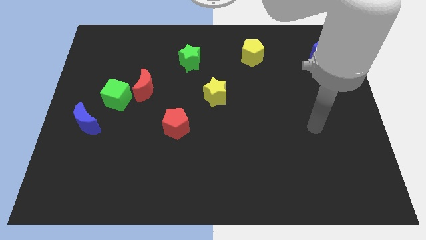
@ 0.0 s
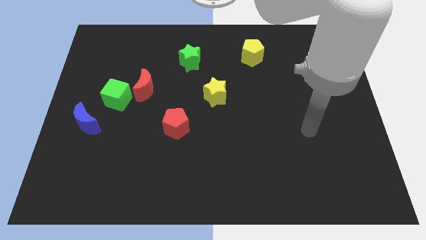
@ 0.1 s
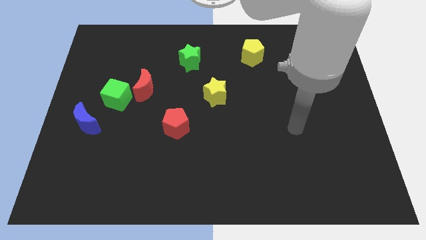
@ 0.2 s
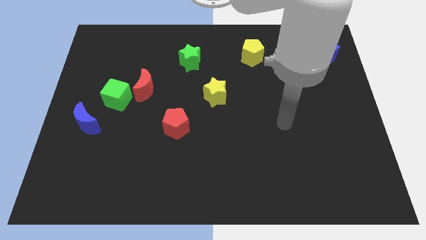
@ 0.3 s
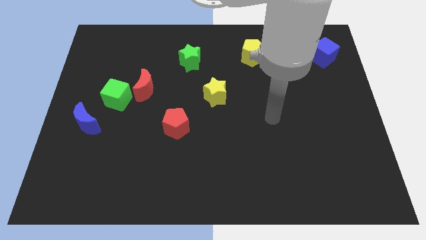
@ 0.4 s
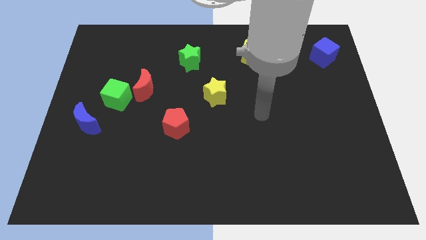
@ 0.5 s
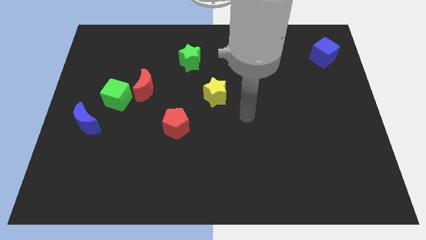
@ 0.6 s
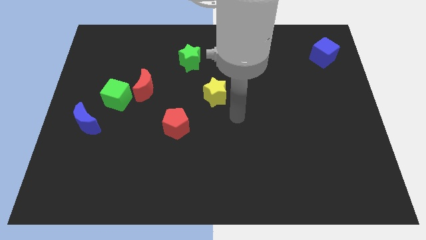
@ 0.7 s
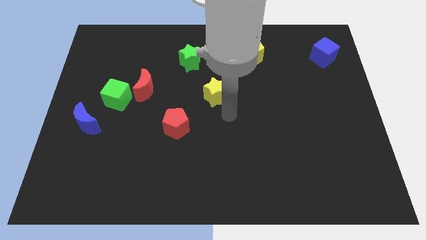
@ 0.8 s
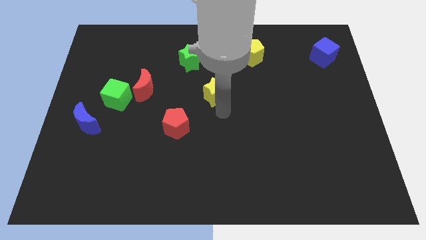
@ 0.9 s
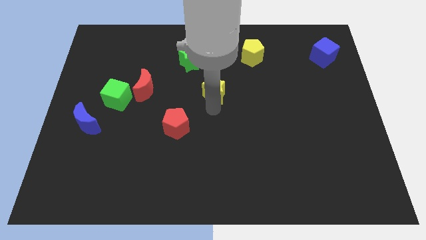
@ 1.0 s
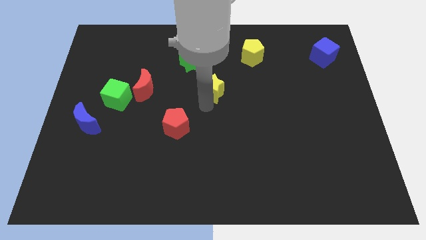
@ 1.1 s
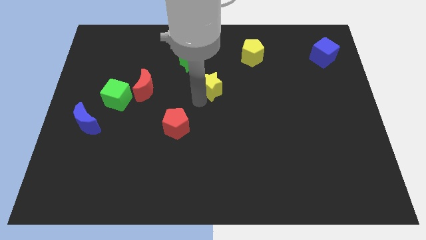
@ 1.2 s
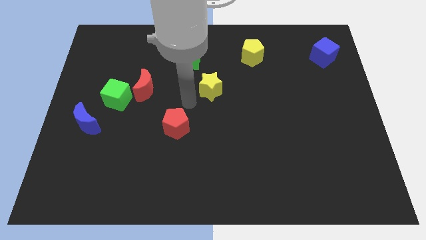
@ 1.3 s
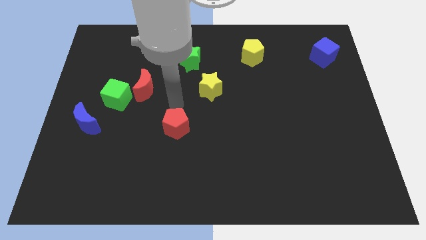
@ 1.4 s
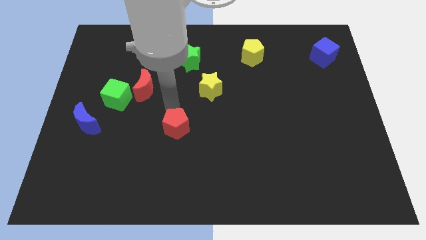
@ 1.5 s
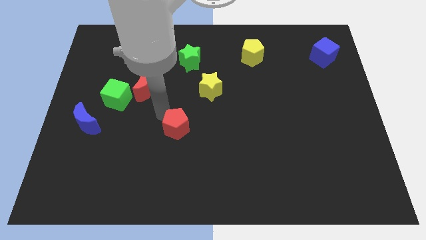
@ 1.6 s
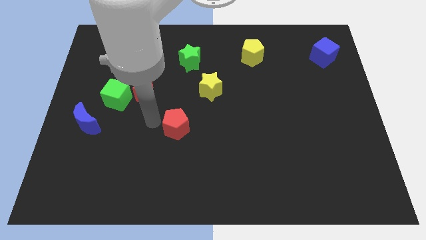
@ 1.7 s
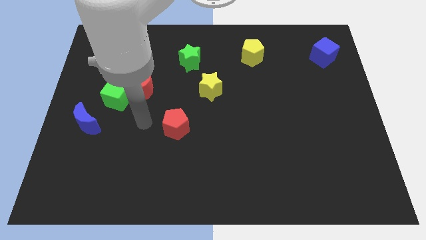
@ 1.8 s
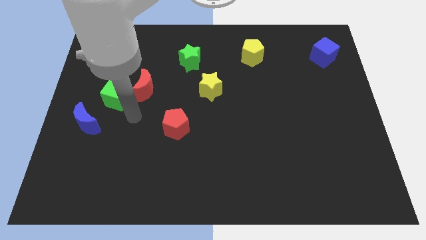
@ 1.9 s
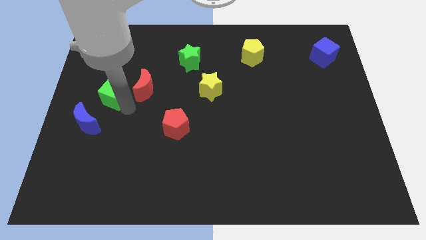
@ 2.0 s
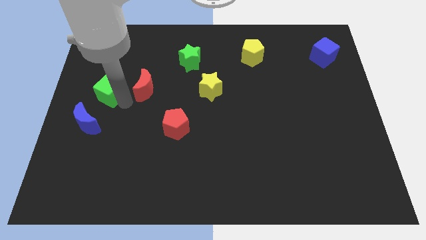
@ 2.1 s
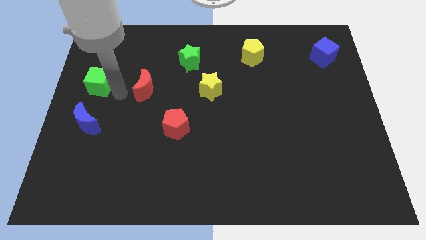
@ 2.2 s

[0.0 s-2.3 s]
move the red moon away from the green cube

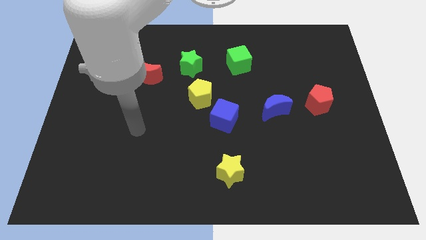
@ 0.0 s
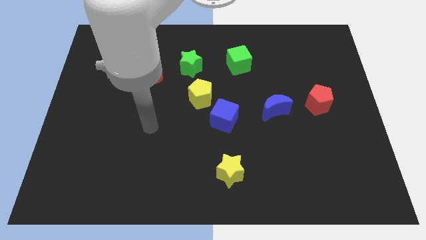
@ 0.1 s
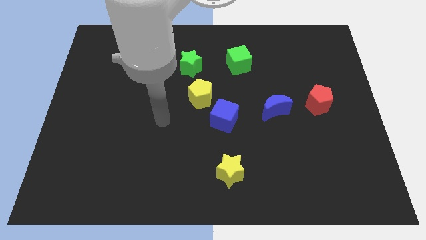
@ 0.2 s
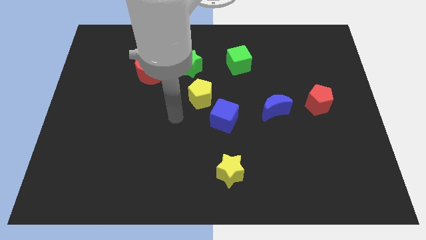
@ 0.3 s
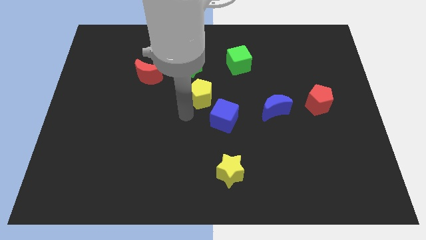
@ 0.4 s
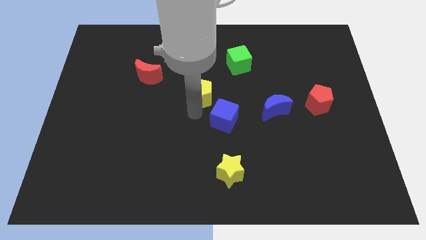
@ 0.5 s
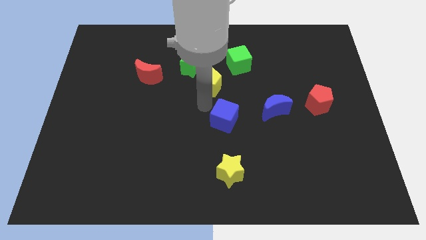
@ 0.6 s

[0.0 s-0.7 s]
separate the blue cube from the yellow pentagon

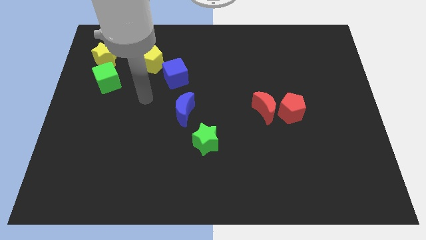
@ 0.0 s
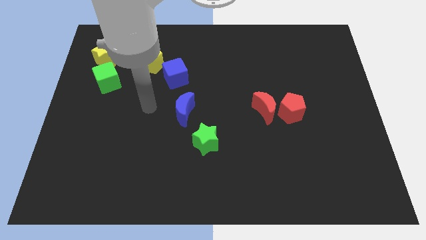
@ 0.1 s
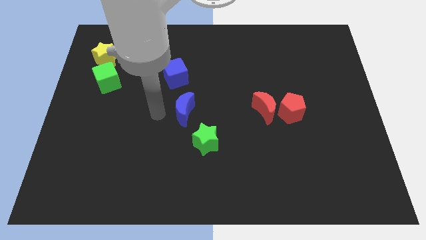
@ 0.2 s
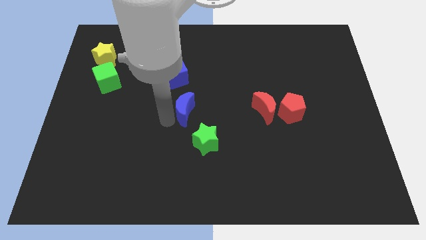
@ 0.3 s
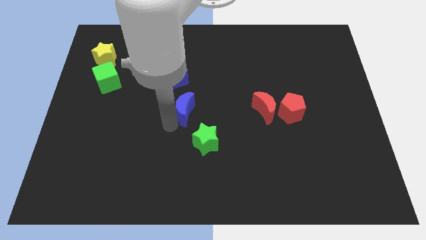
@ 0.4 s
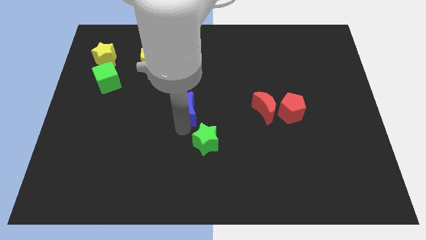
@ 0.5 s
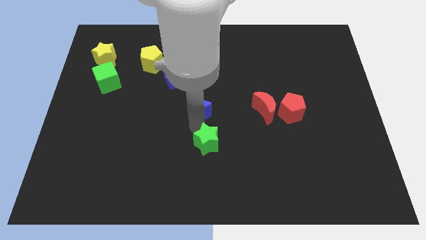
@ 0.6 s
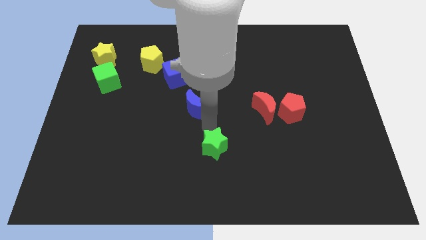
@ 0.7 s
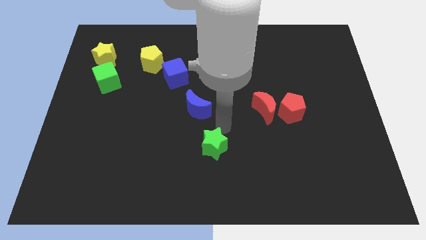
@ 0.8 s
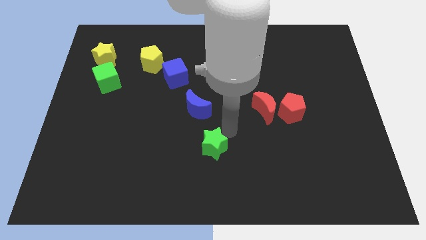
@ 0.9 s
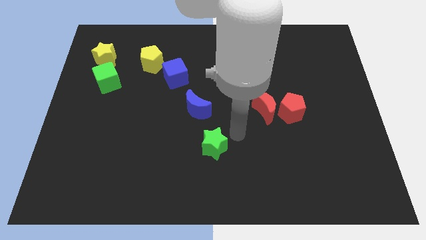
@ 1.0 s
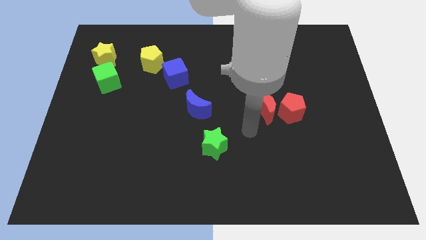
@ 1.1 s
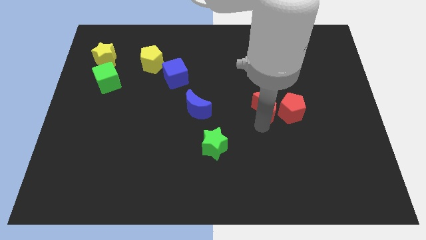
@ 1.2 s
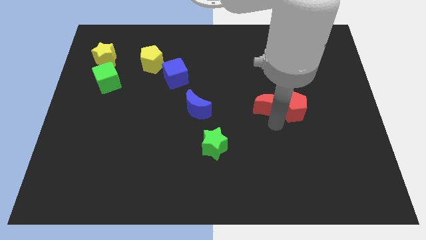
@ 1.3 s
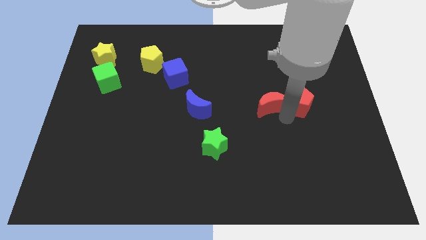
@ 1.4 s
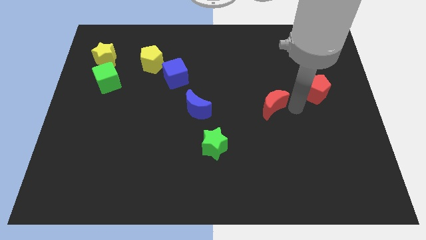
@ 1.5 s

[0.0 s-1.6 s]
move the red moon away from the red pentagon

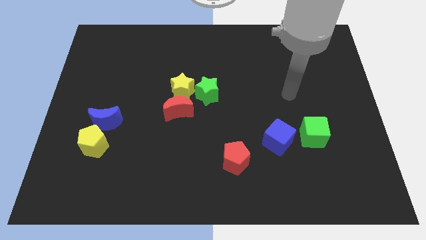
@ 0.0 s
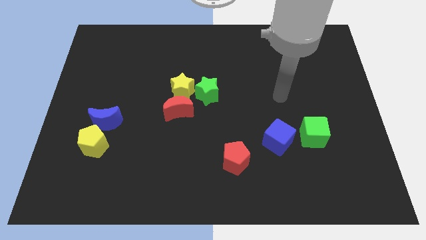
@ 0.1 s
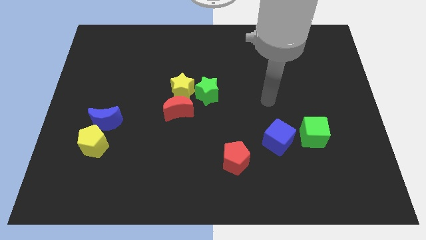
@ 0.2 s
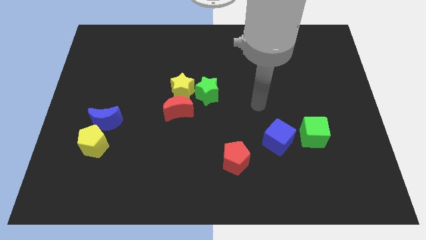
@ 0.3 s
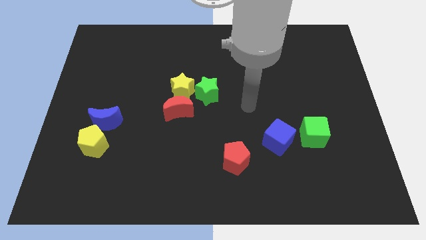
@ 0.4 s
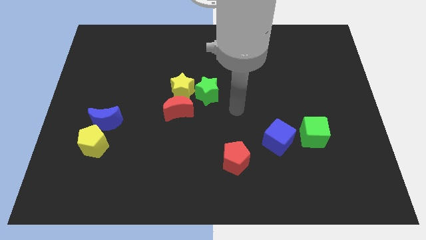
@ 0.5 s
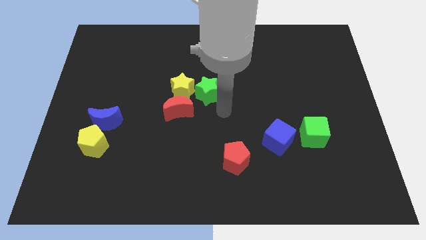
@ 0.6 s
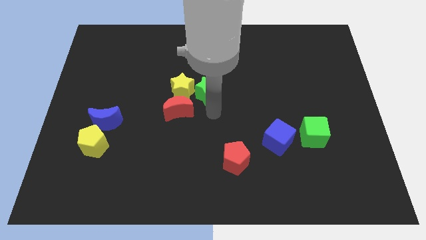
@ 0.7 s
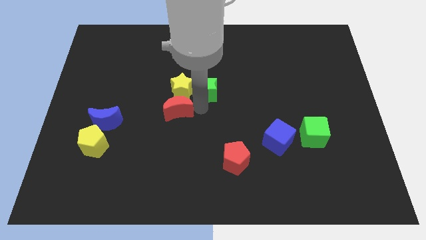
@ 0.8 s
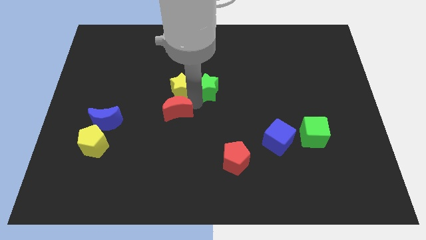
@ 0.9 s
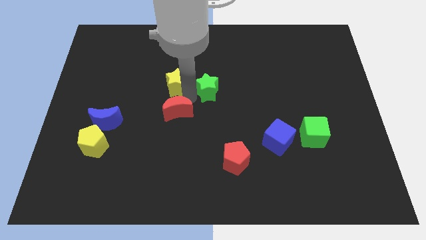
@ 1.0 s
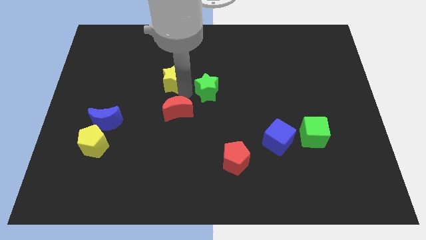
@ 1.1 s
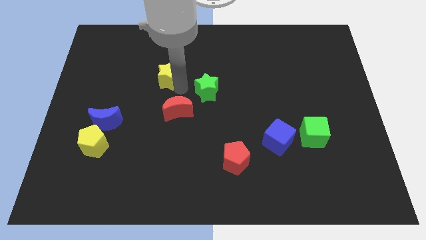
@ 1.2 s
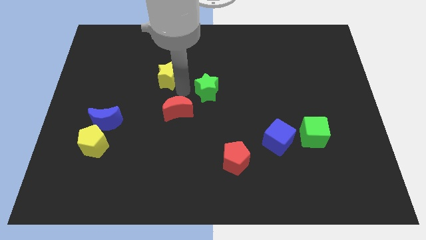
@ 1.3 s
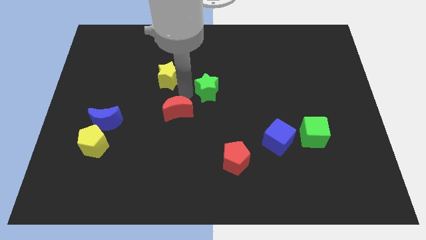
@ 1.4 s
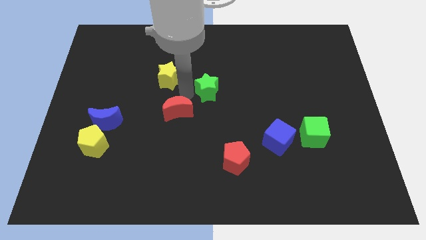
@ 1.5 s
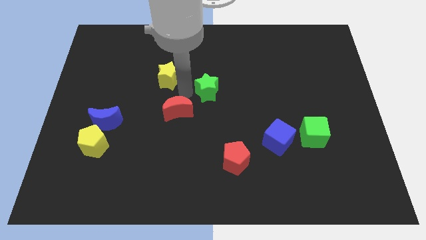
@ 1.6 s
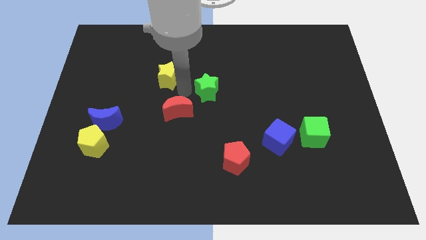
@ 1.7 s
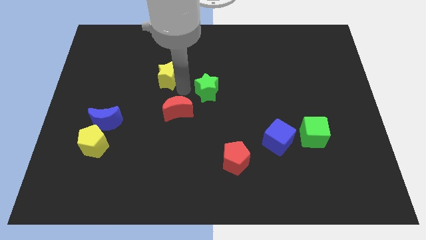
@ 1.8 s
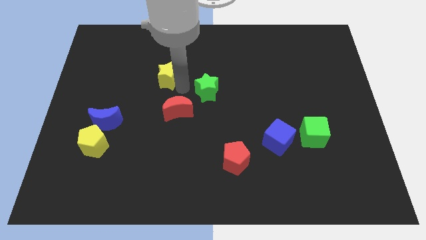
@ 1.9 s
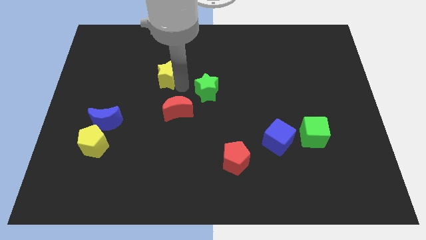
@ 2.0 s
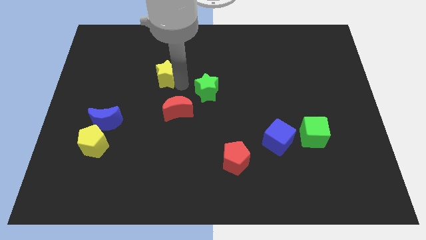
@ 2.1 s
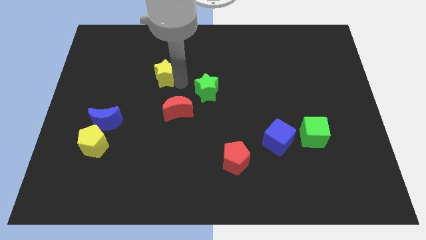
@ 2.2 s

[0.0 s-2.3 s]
move the yellow star away from the red moon and green star

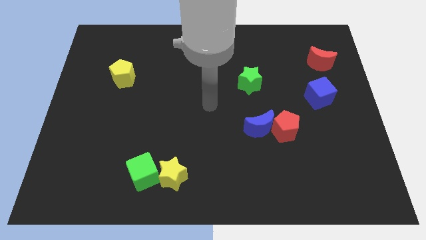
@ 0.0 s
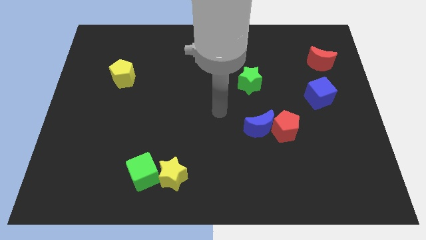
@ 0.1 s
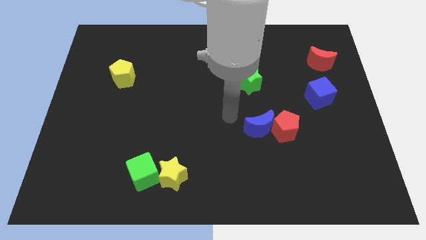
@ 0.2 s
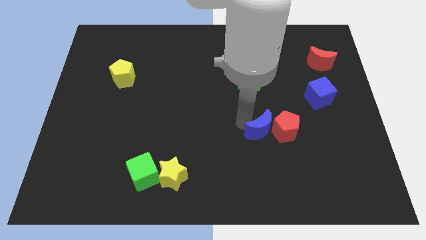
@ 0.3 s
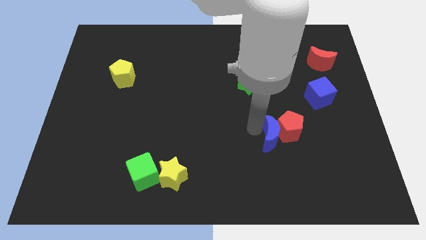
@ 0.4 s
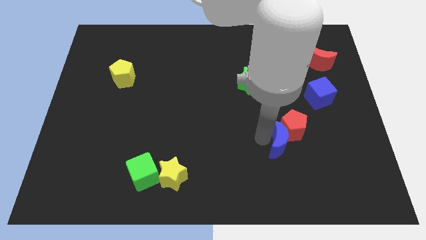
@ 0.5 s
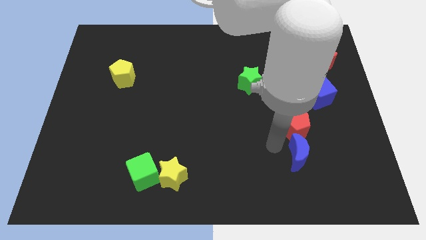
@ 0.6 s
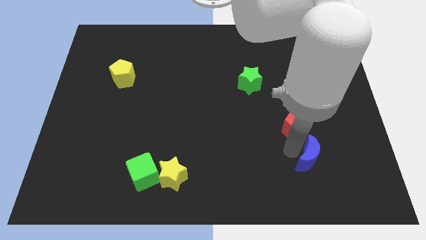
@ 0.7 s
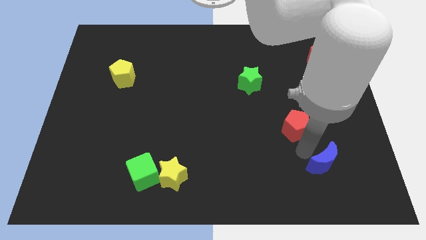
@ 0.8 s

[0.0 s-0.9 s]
move the red pentagon away from the blue moon

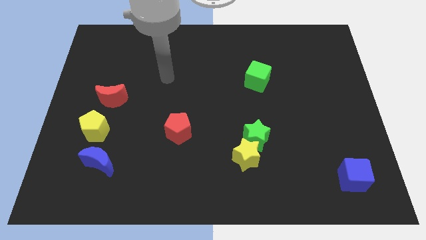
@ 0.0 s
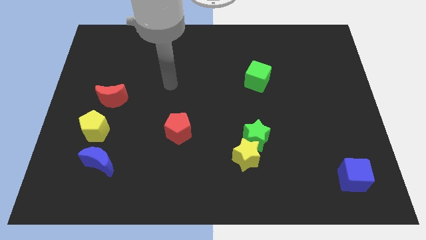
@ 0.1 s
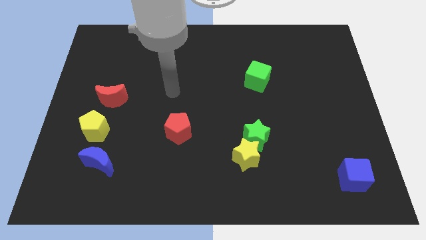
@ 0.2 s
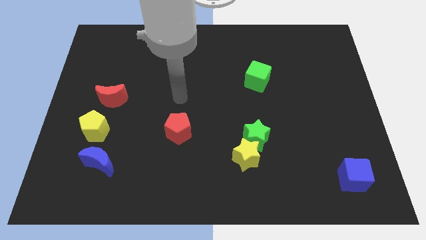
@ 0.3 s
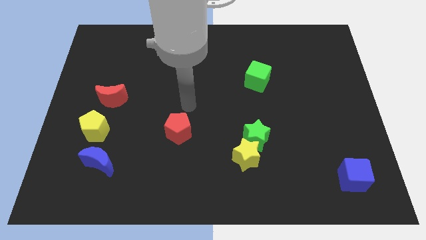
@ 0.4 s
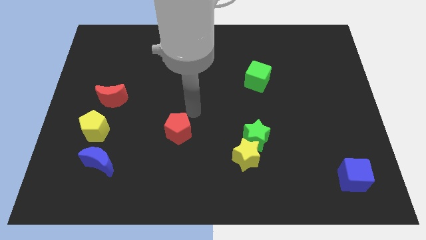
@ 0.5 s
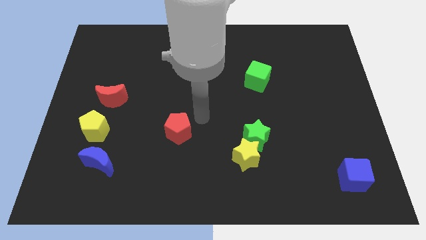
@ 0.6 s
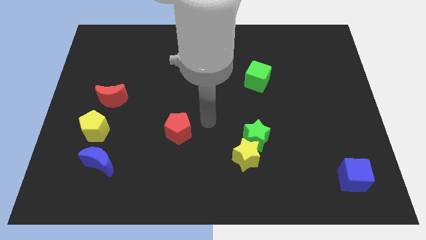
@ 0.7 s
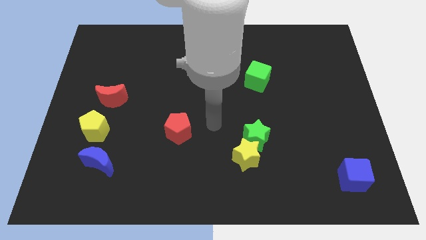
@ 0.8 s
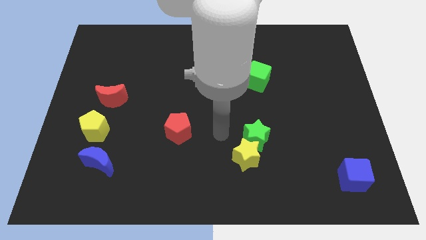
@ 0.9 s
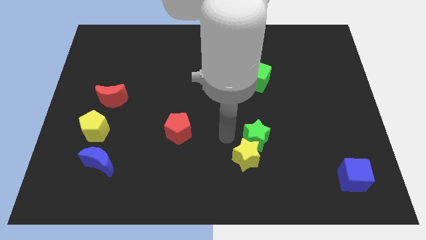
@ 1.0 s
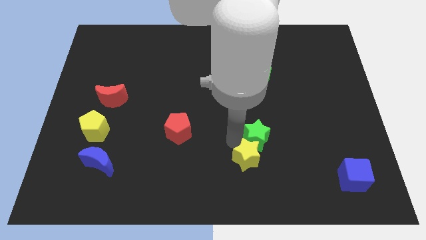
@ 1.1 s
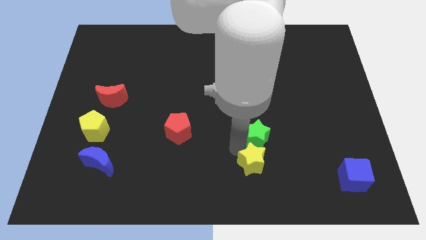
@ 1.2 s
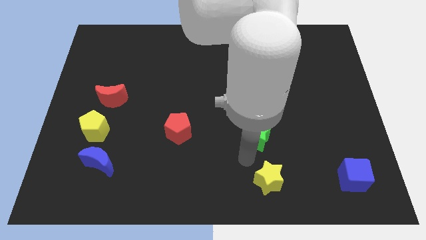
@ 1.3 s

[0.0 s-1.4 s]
separate the green star from the yellow star
